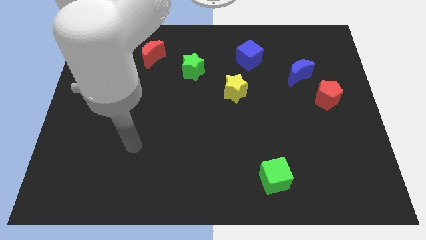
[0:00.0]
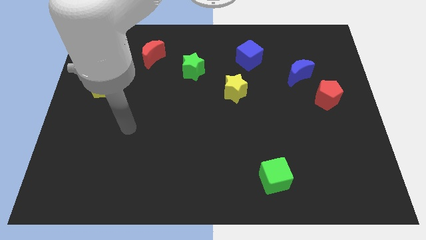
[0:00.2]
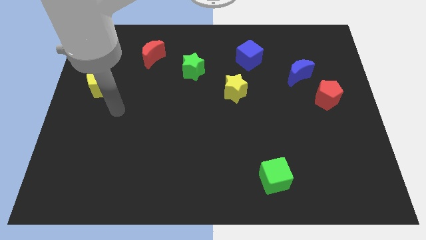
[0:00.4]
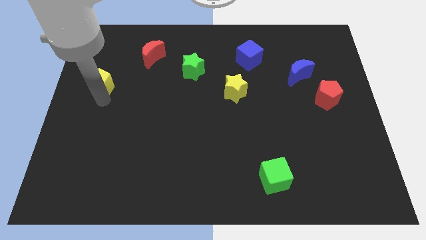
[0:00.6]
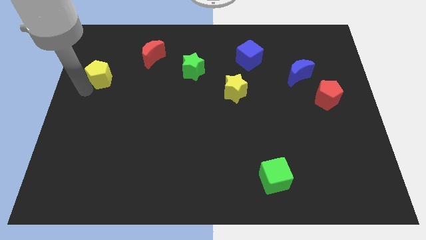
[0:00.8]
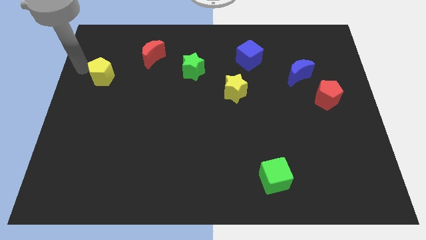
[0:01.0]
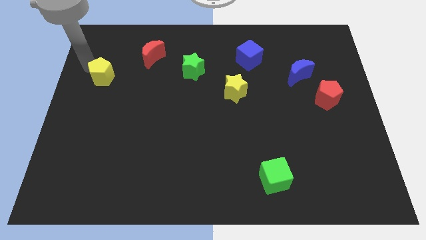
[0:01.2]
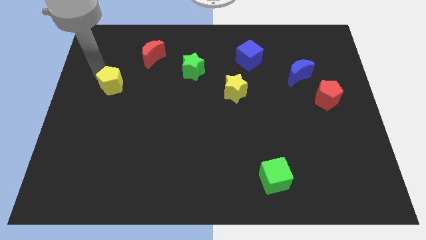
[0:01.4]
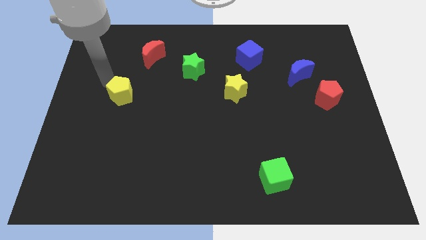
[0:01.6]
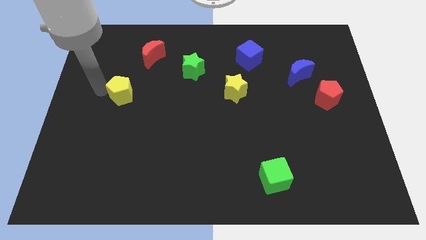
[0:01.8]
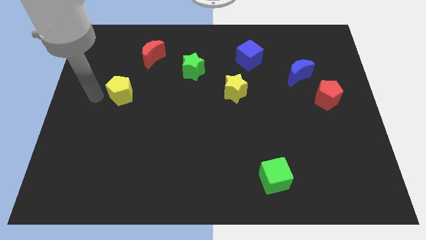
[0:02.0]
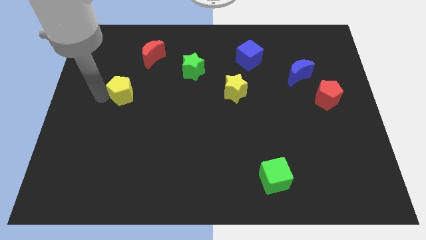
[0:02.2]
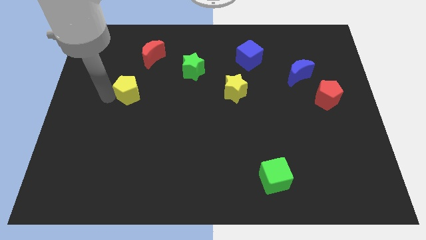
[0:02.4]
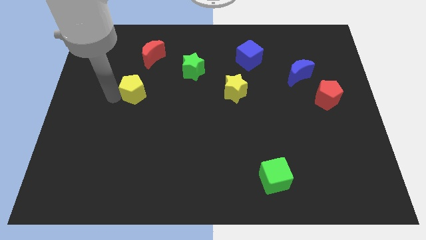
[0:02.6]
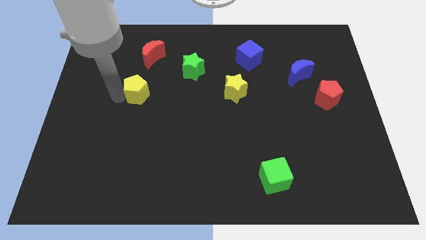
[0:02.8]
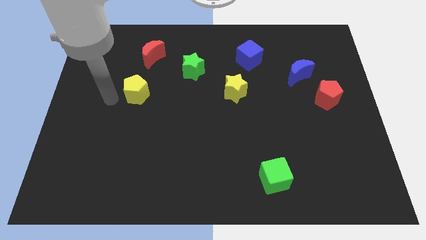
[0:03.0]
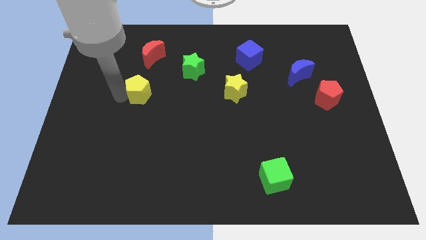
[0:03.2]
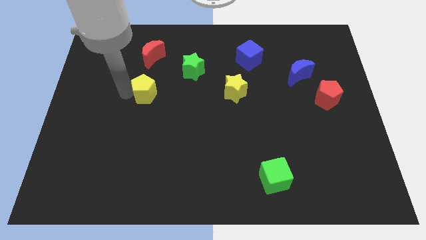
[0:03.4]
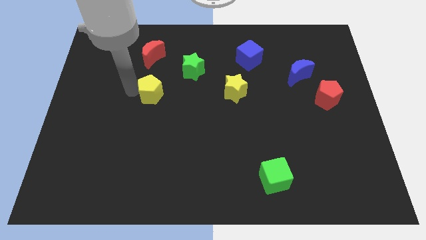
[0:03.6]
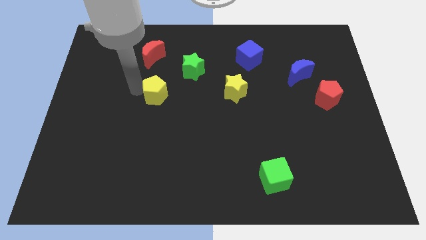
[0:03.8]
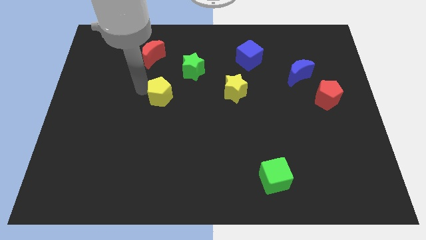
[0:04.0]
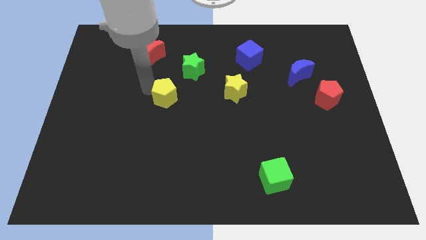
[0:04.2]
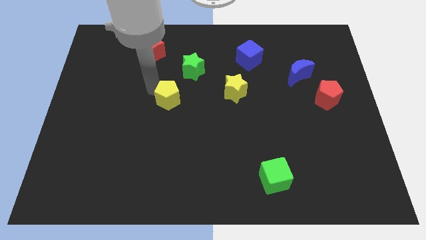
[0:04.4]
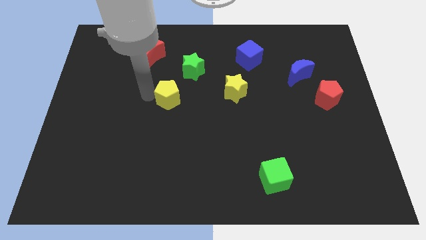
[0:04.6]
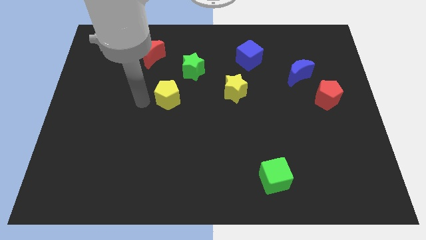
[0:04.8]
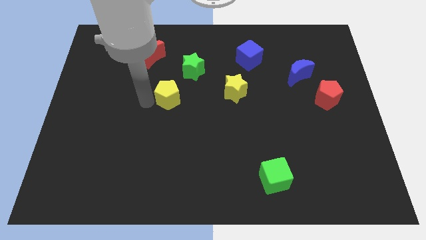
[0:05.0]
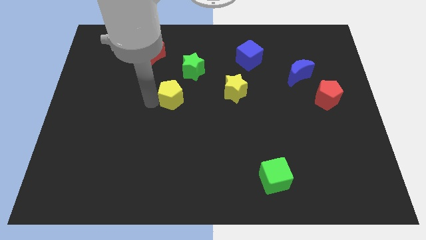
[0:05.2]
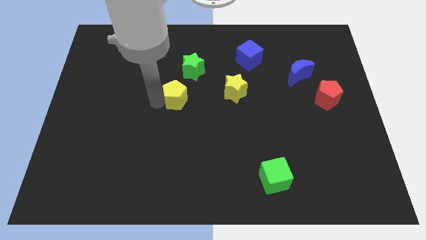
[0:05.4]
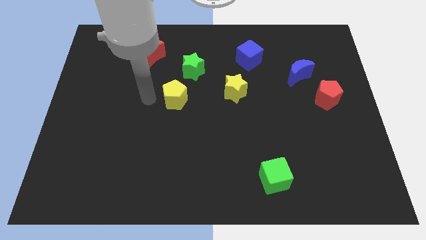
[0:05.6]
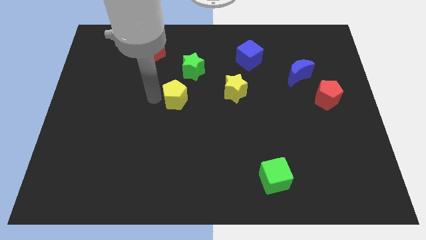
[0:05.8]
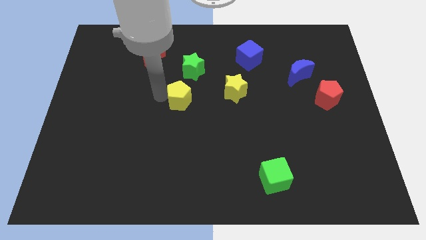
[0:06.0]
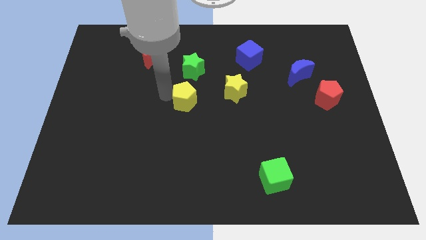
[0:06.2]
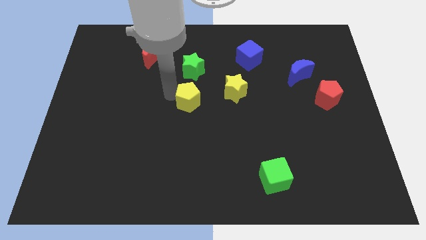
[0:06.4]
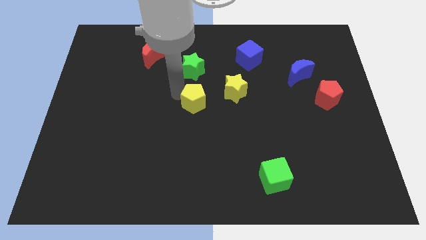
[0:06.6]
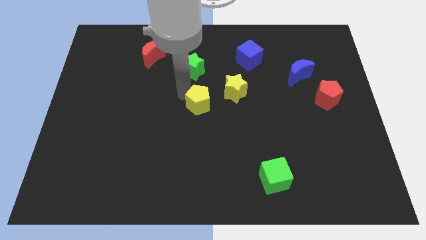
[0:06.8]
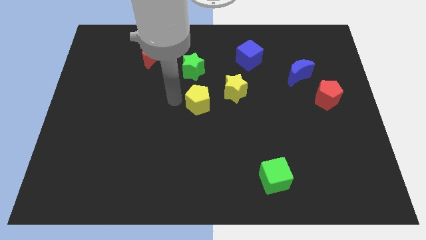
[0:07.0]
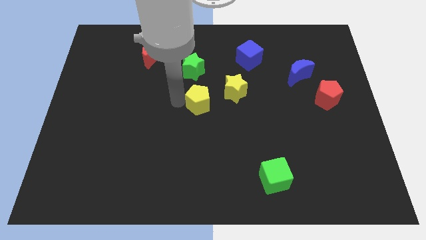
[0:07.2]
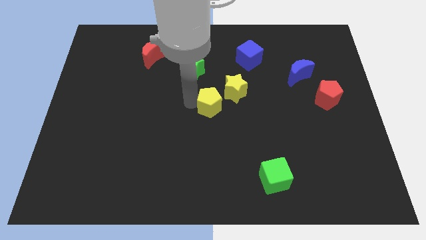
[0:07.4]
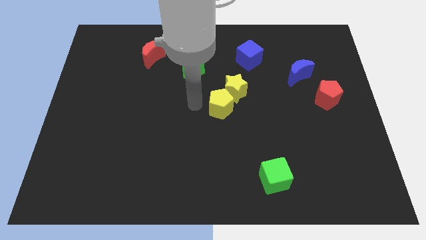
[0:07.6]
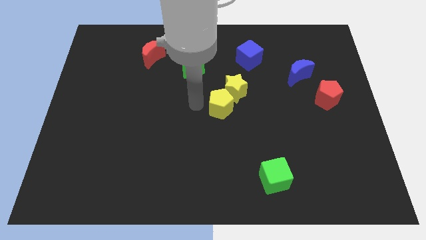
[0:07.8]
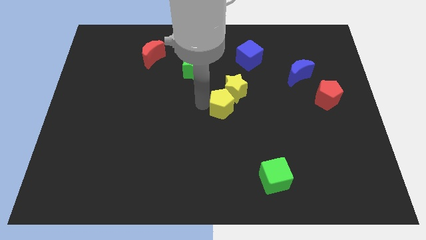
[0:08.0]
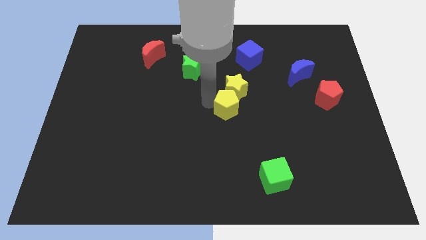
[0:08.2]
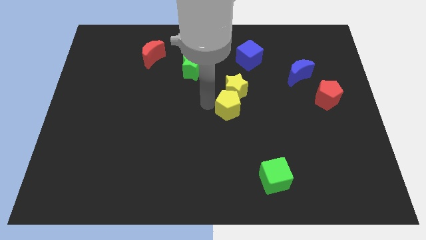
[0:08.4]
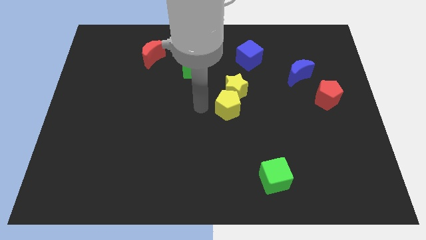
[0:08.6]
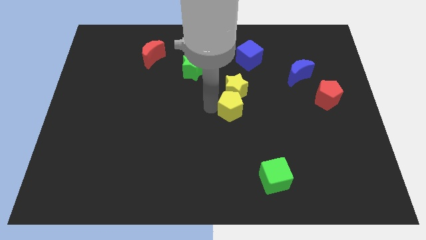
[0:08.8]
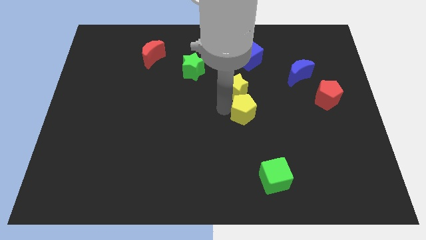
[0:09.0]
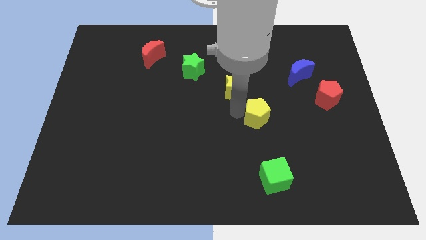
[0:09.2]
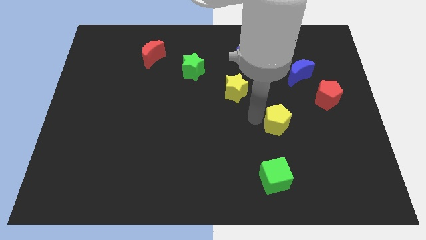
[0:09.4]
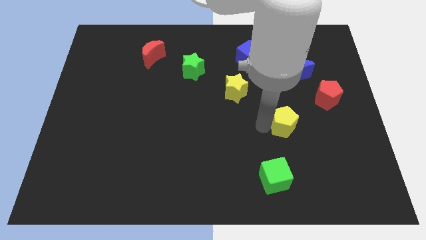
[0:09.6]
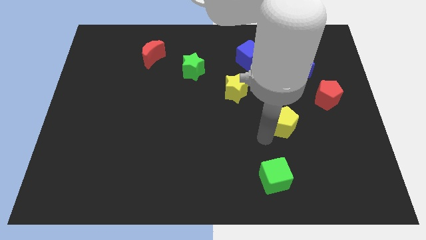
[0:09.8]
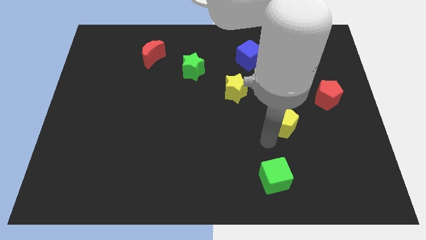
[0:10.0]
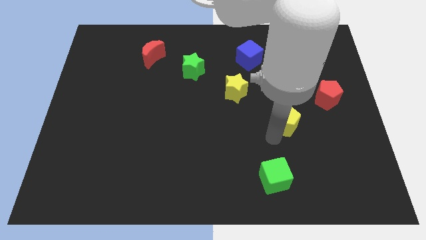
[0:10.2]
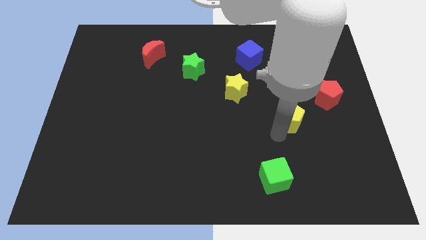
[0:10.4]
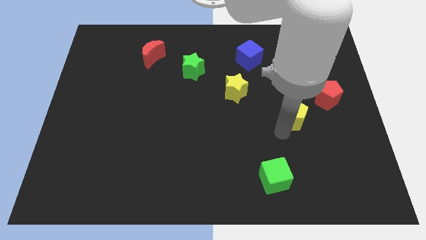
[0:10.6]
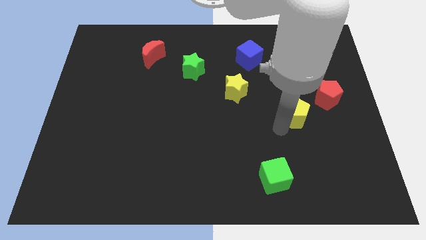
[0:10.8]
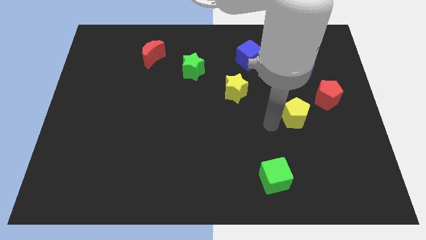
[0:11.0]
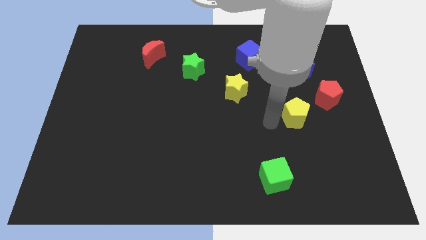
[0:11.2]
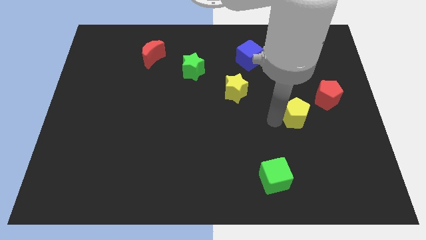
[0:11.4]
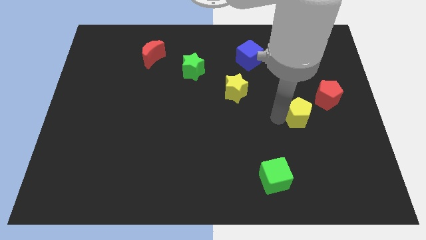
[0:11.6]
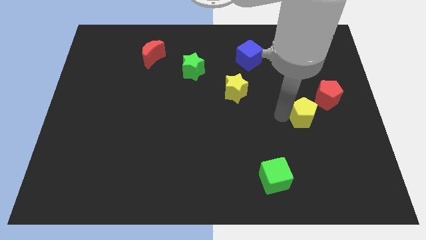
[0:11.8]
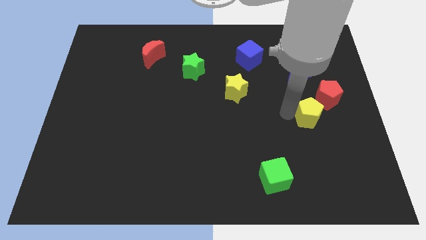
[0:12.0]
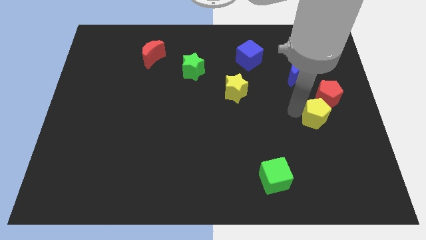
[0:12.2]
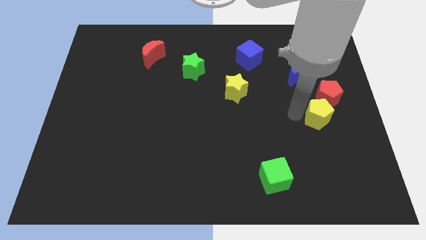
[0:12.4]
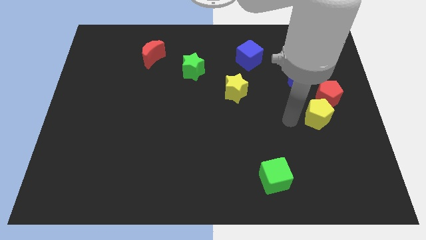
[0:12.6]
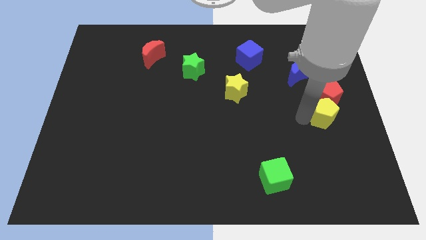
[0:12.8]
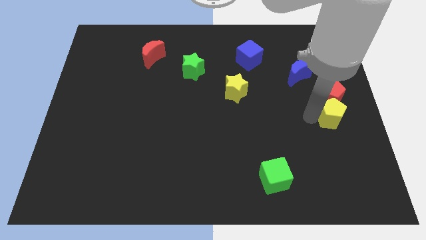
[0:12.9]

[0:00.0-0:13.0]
slide the yellow pentagon to the center right

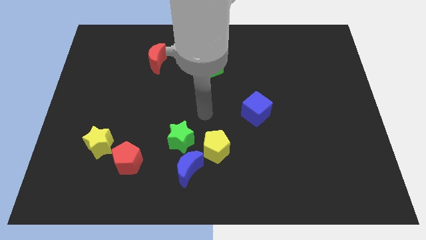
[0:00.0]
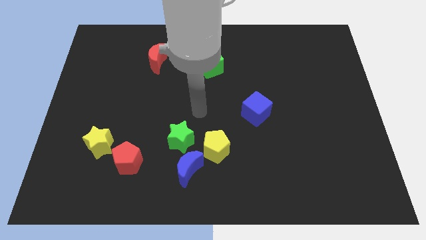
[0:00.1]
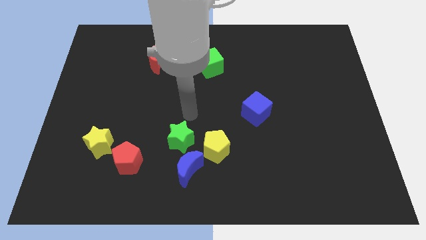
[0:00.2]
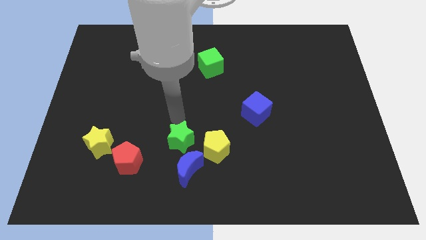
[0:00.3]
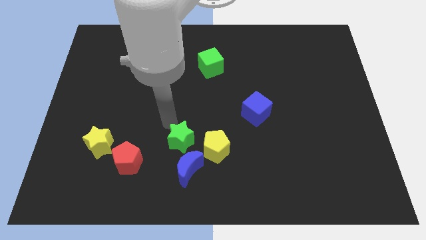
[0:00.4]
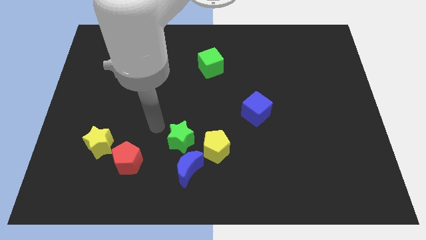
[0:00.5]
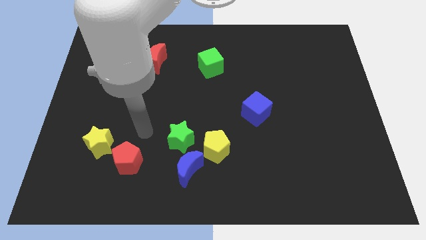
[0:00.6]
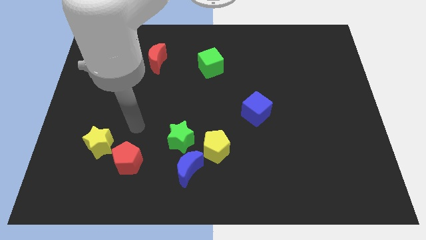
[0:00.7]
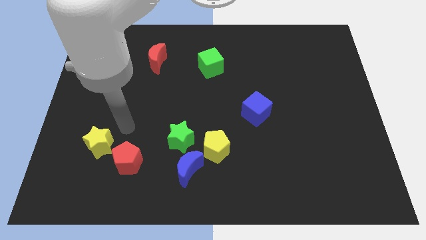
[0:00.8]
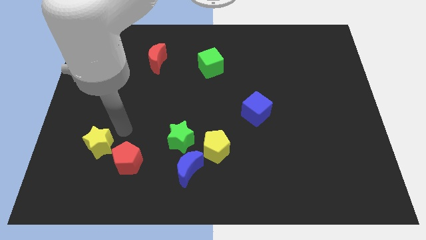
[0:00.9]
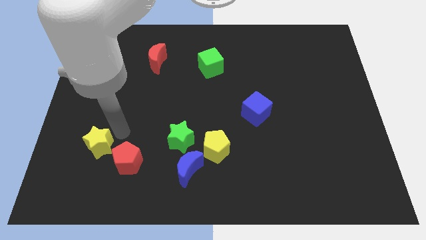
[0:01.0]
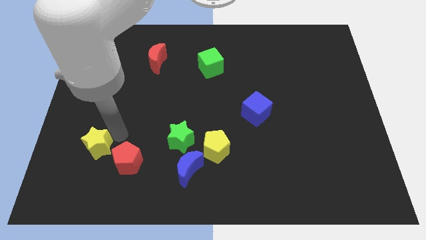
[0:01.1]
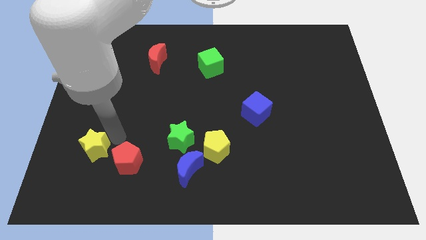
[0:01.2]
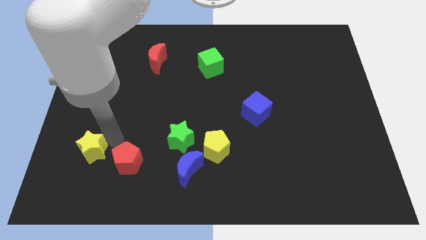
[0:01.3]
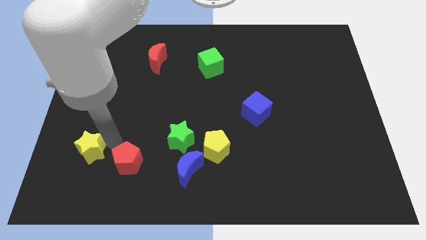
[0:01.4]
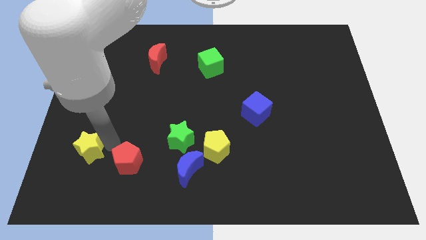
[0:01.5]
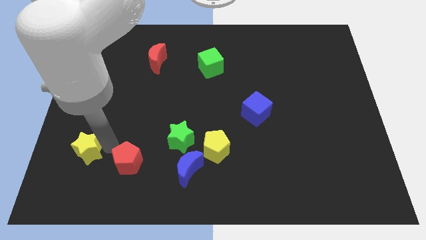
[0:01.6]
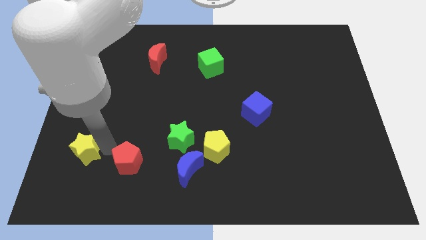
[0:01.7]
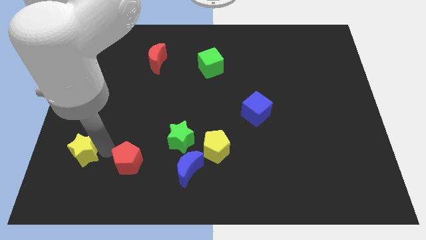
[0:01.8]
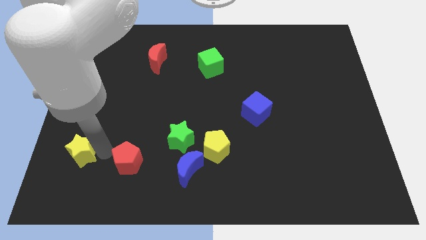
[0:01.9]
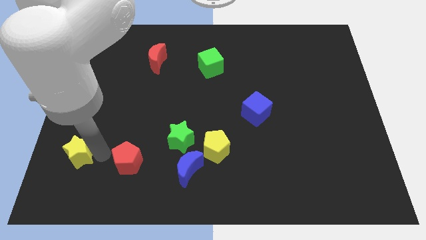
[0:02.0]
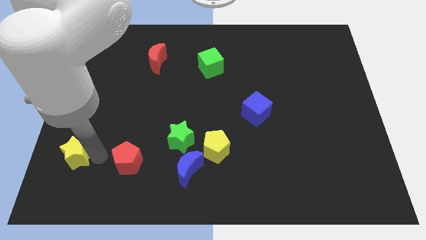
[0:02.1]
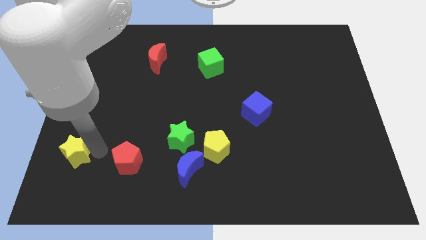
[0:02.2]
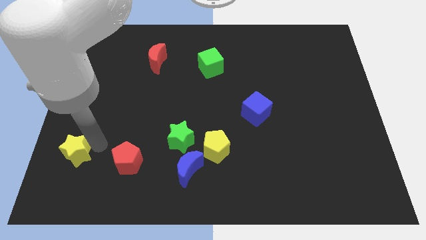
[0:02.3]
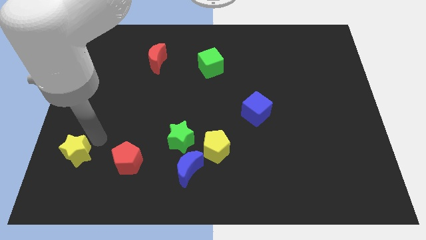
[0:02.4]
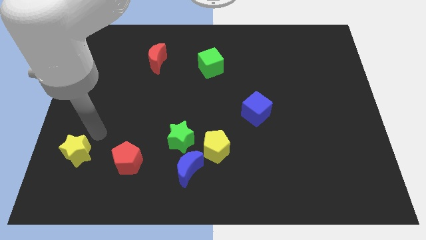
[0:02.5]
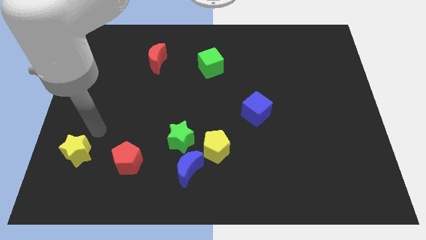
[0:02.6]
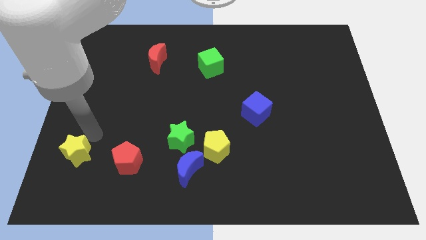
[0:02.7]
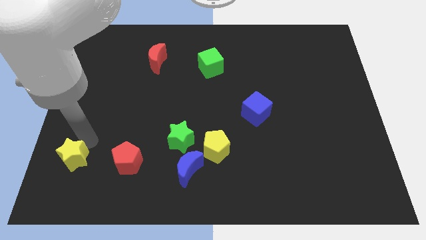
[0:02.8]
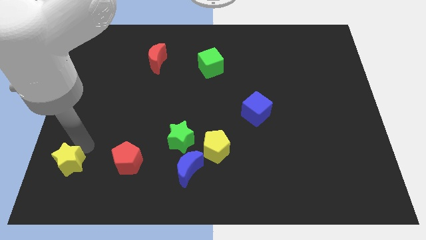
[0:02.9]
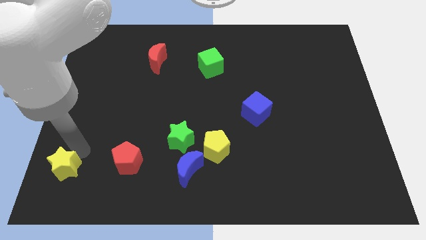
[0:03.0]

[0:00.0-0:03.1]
push the yellow star to the lower left corner
